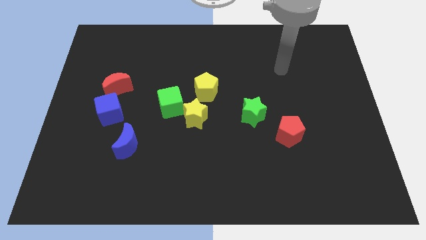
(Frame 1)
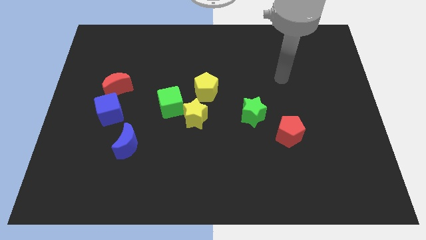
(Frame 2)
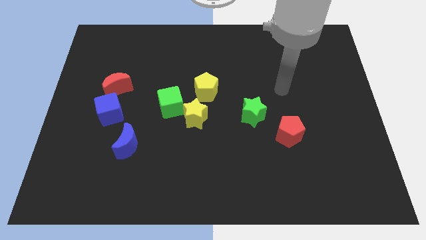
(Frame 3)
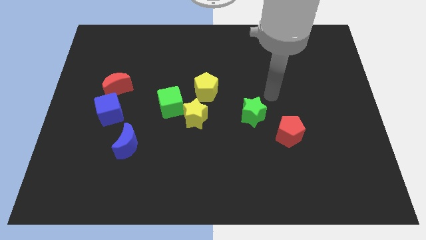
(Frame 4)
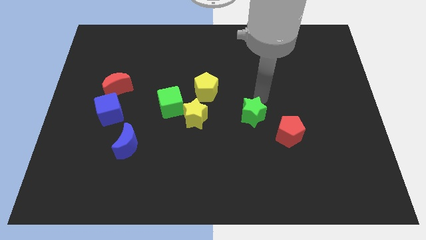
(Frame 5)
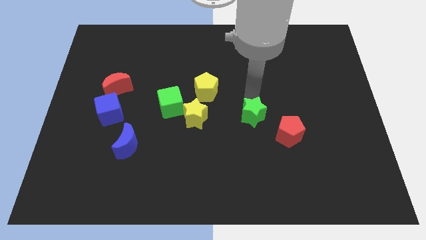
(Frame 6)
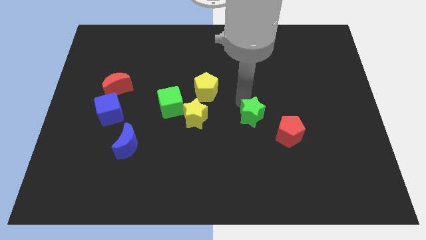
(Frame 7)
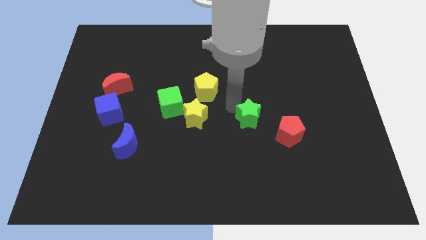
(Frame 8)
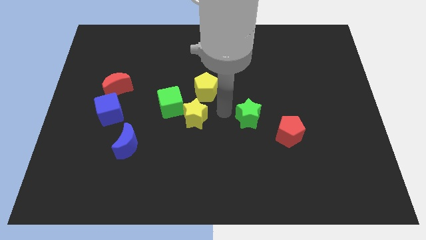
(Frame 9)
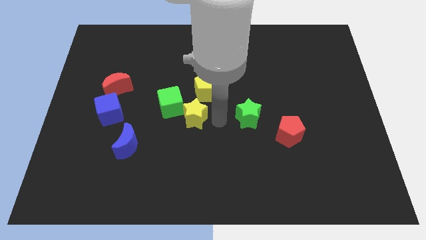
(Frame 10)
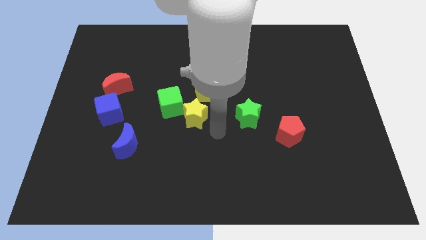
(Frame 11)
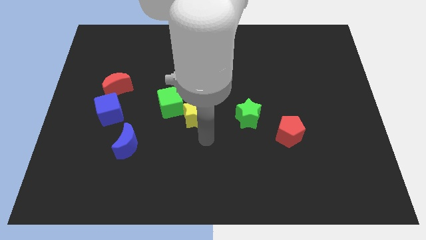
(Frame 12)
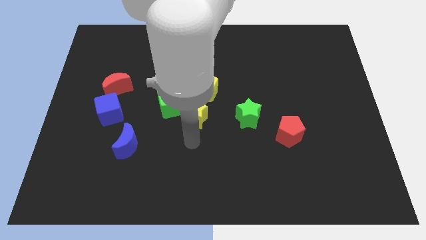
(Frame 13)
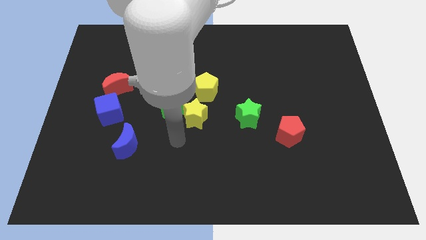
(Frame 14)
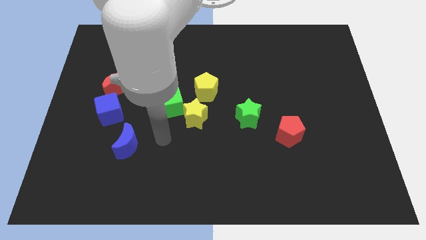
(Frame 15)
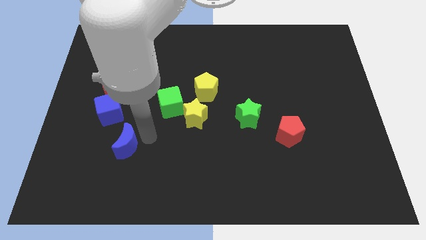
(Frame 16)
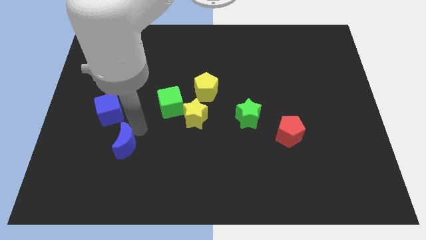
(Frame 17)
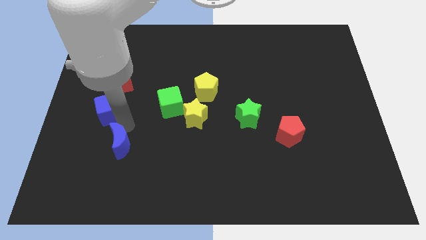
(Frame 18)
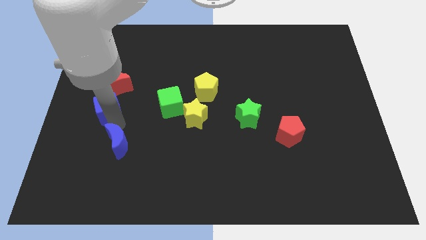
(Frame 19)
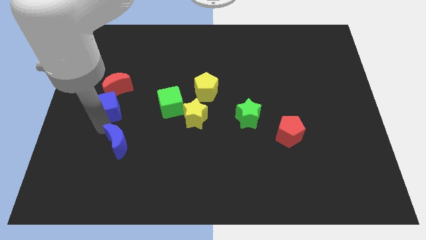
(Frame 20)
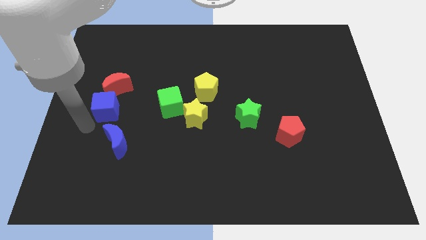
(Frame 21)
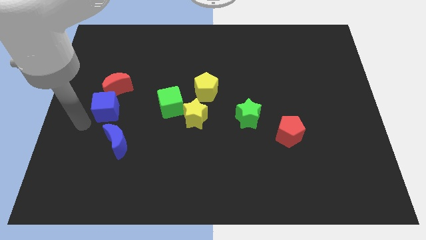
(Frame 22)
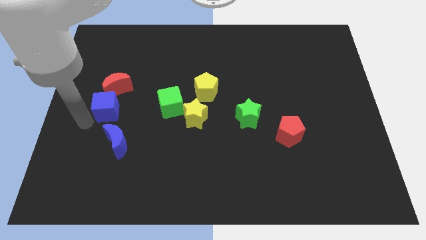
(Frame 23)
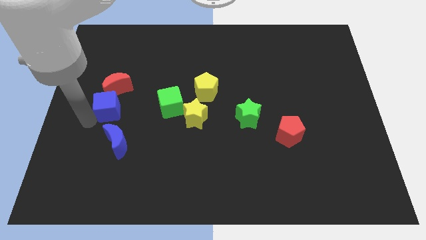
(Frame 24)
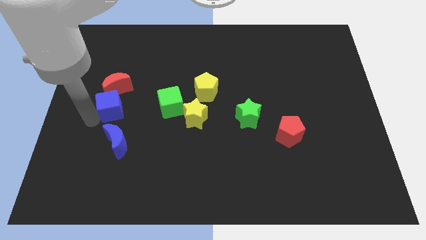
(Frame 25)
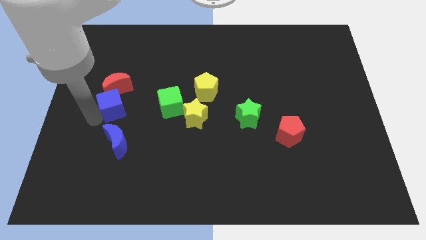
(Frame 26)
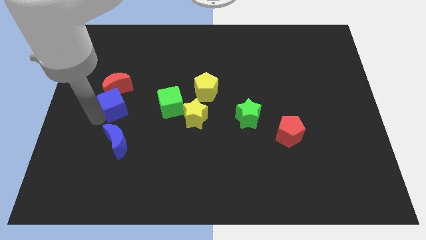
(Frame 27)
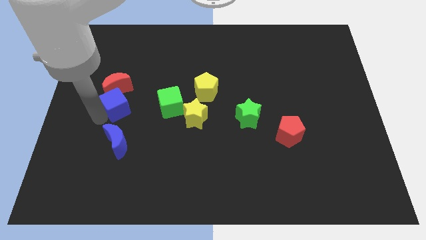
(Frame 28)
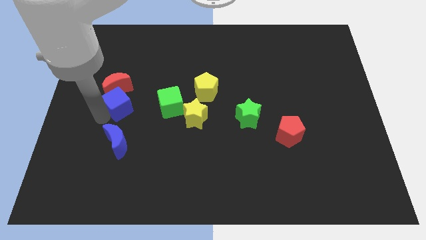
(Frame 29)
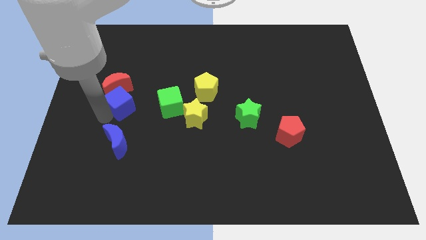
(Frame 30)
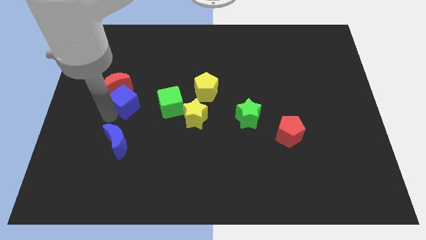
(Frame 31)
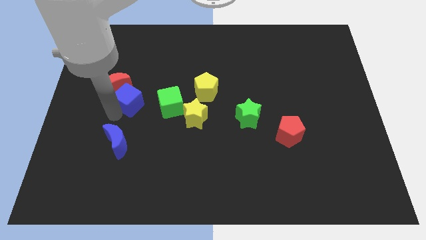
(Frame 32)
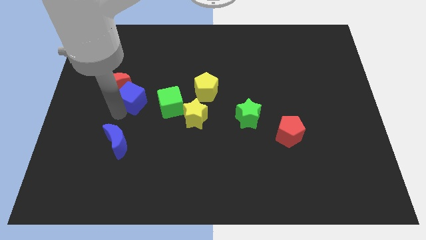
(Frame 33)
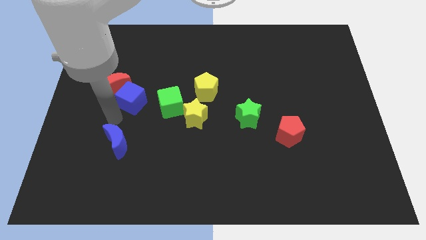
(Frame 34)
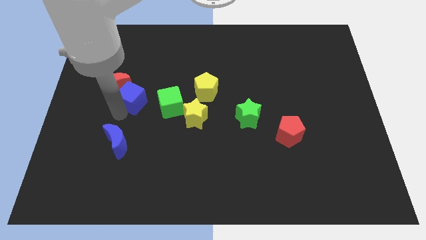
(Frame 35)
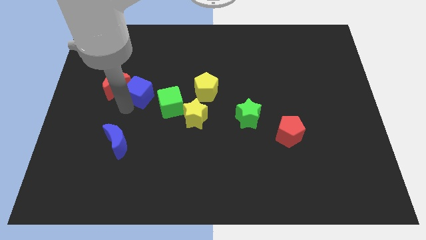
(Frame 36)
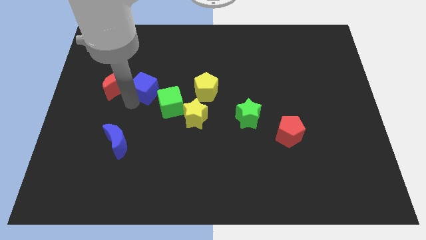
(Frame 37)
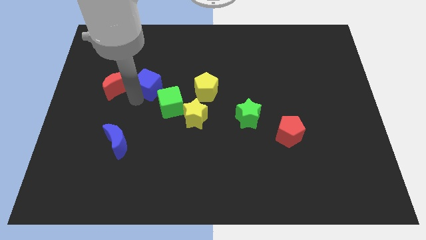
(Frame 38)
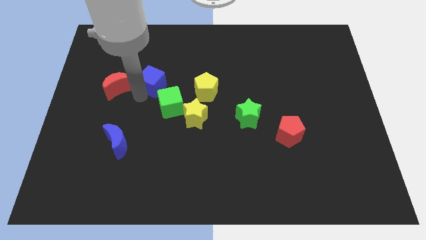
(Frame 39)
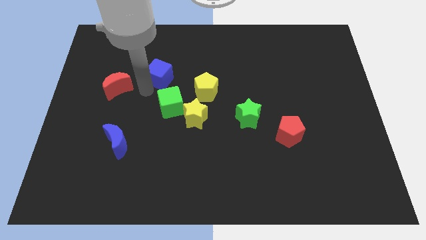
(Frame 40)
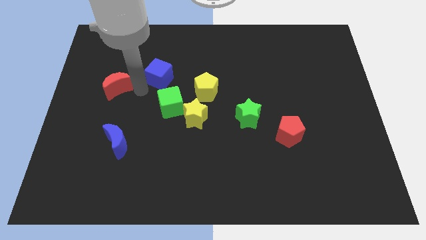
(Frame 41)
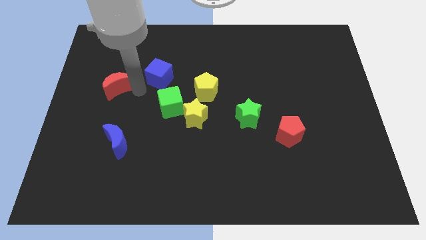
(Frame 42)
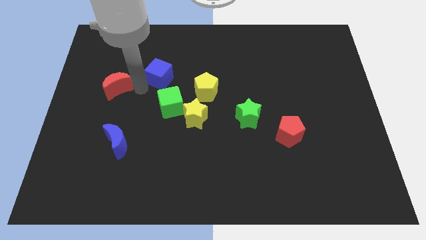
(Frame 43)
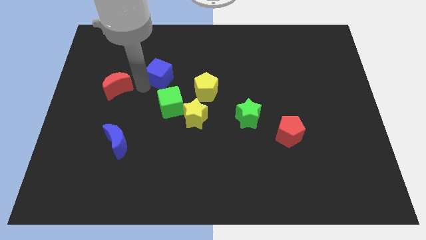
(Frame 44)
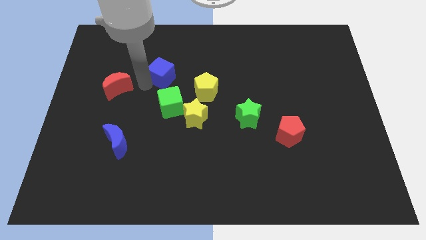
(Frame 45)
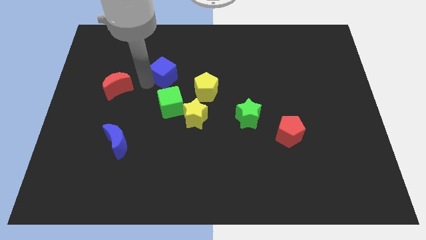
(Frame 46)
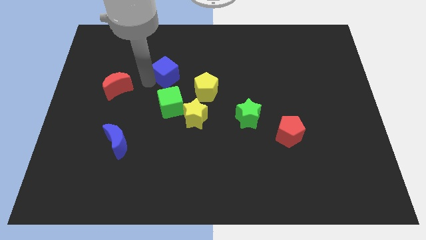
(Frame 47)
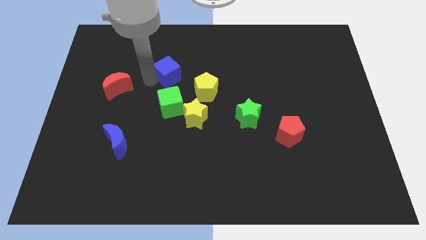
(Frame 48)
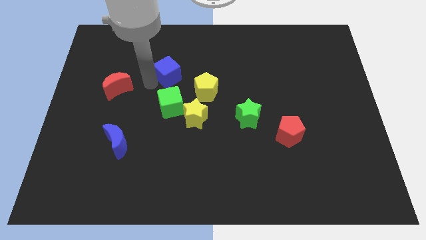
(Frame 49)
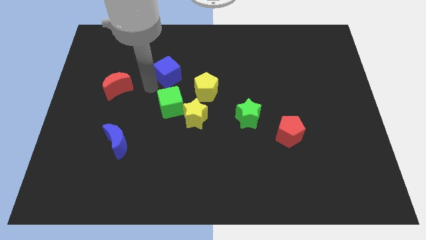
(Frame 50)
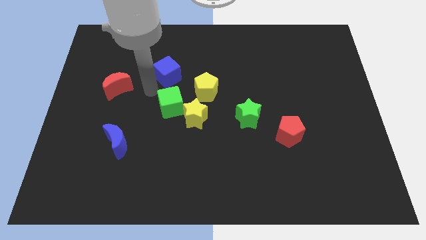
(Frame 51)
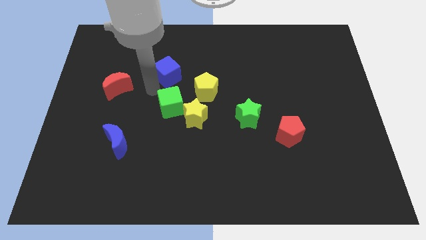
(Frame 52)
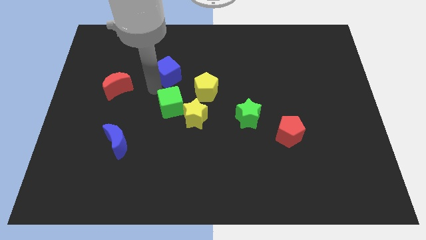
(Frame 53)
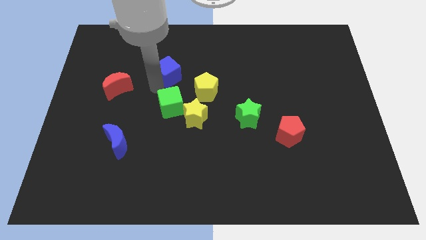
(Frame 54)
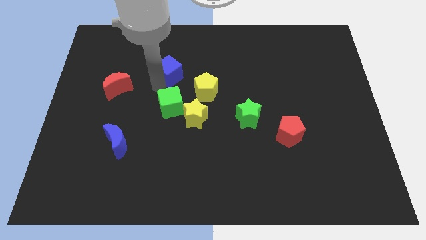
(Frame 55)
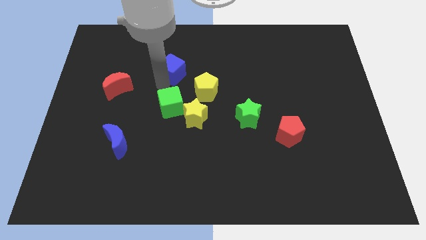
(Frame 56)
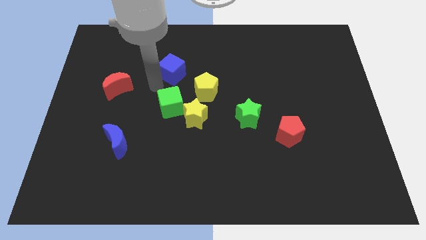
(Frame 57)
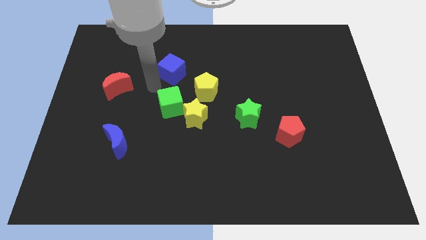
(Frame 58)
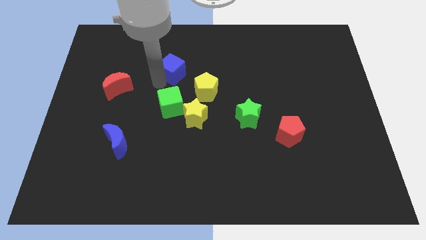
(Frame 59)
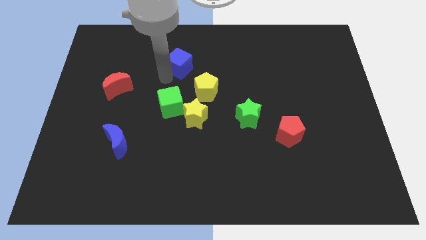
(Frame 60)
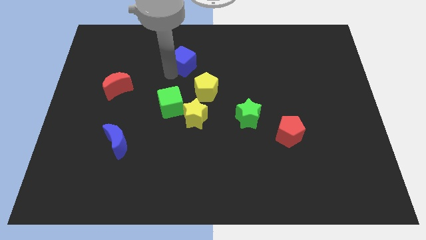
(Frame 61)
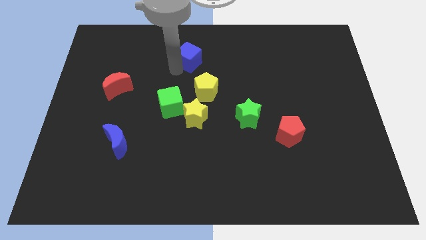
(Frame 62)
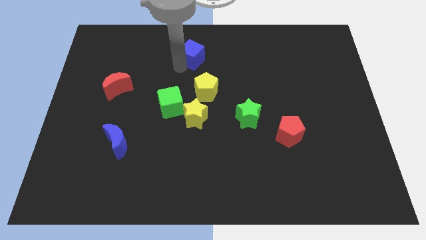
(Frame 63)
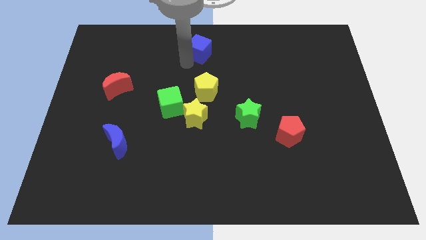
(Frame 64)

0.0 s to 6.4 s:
push the blue cube to the towards your base
